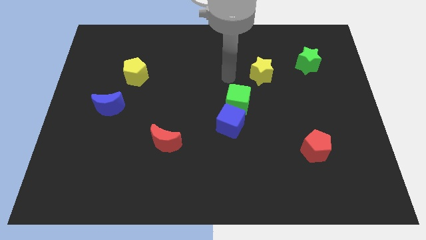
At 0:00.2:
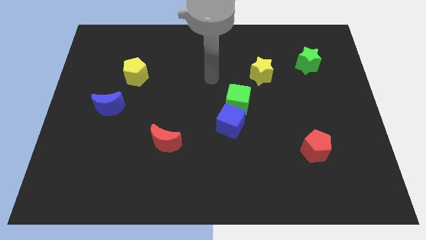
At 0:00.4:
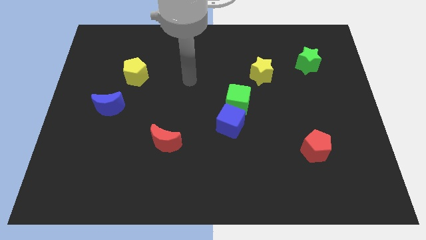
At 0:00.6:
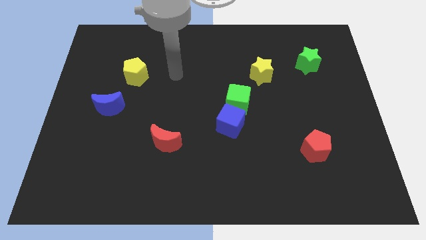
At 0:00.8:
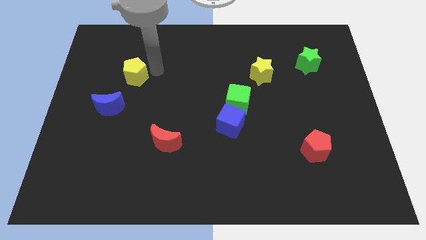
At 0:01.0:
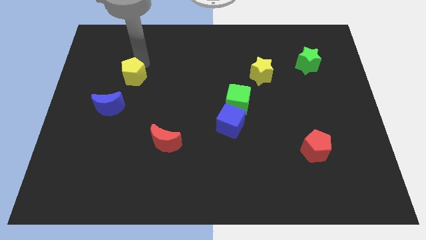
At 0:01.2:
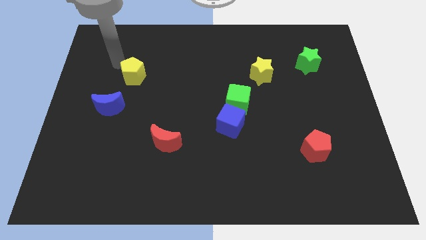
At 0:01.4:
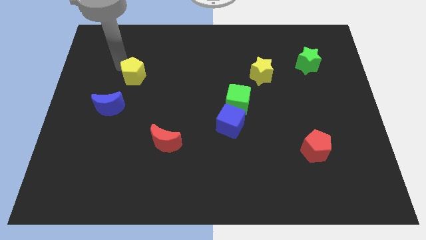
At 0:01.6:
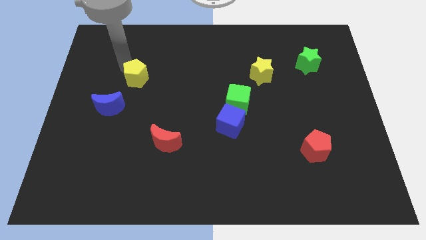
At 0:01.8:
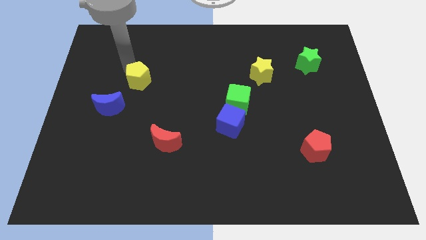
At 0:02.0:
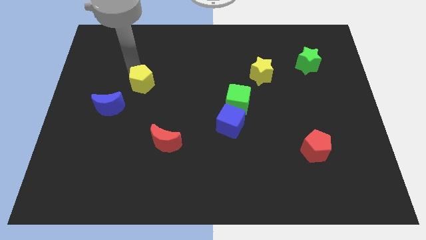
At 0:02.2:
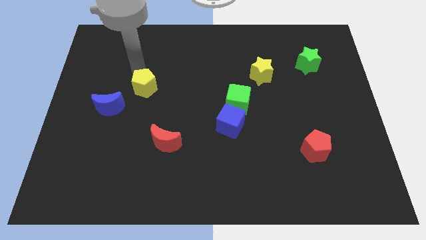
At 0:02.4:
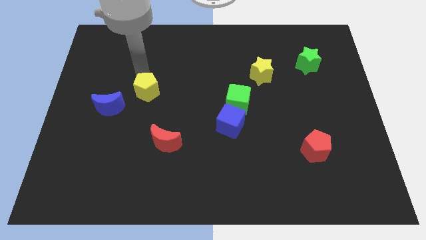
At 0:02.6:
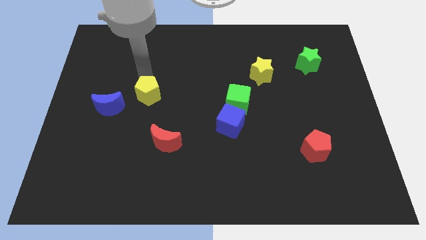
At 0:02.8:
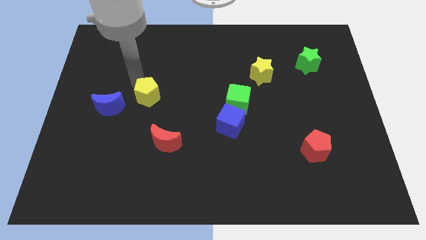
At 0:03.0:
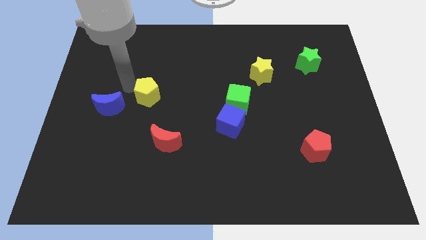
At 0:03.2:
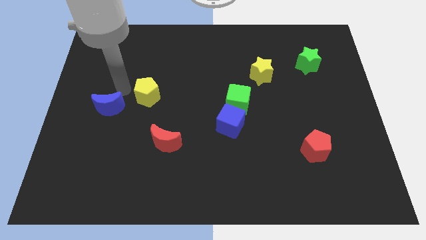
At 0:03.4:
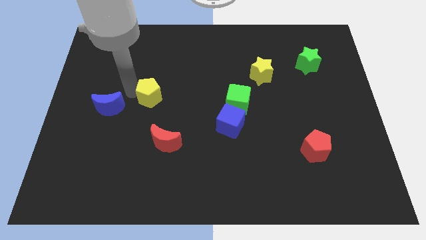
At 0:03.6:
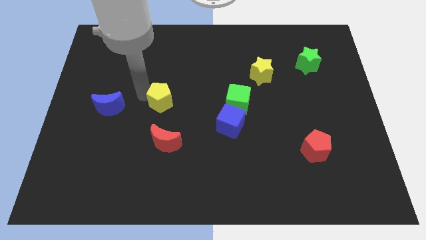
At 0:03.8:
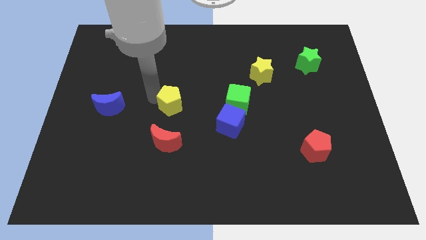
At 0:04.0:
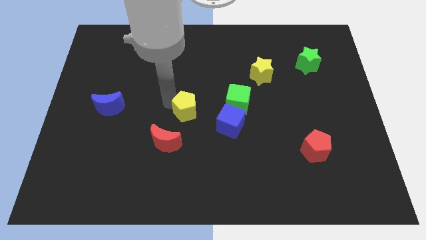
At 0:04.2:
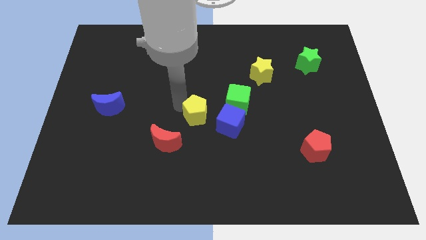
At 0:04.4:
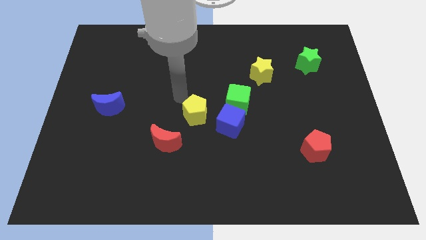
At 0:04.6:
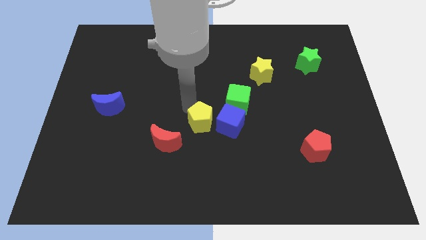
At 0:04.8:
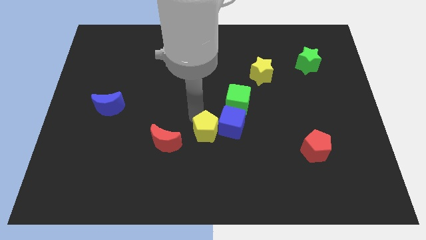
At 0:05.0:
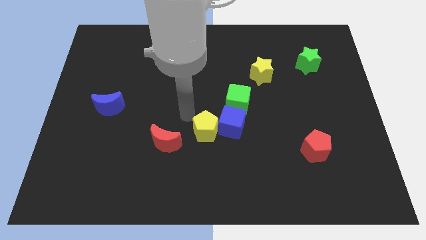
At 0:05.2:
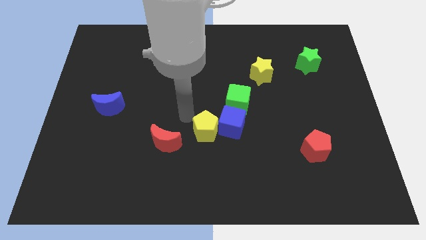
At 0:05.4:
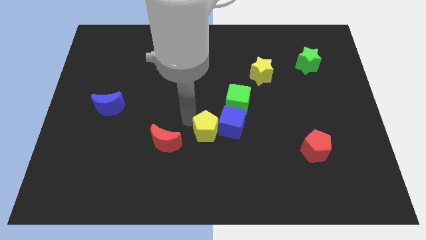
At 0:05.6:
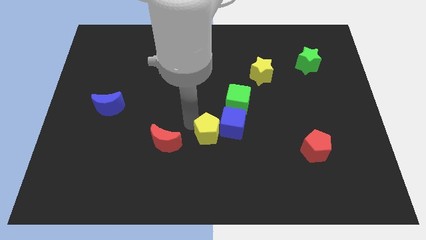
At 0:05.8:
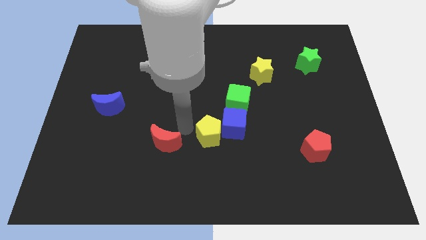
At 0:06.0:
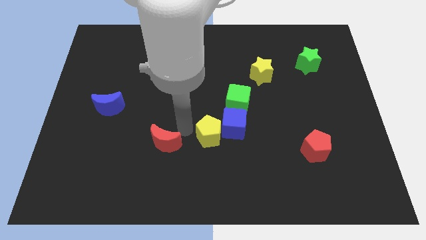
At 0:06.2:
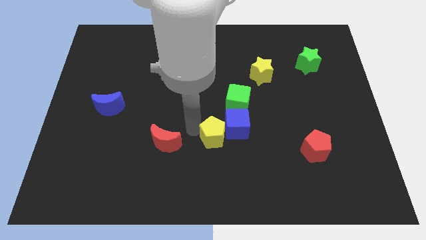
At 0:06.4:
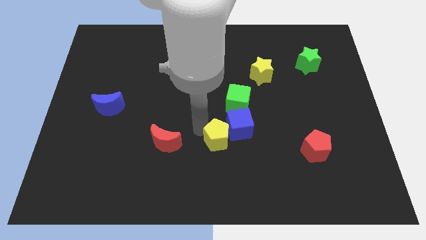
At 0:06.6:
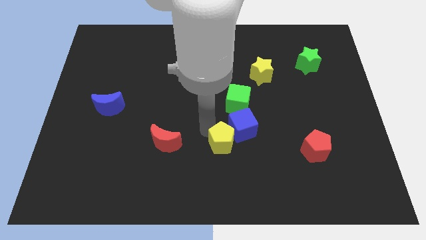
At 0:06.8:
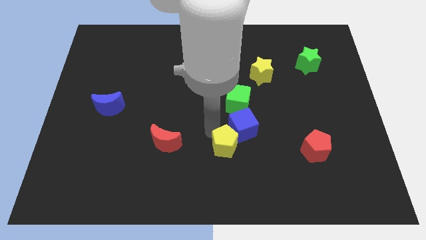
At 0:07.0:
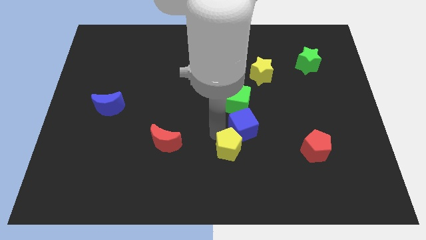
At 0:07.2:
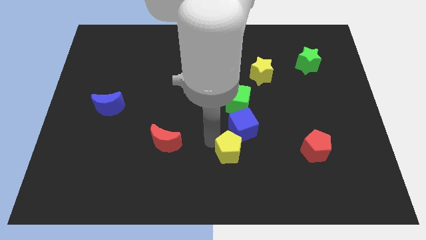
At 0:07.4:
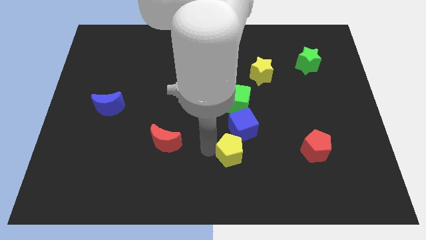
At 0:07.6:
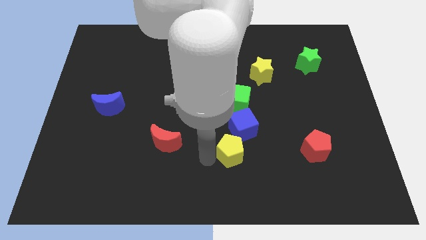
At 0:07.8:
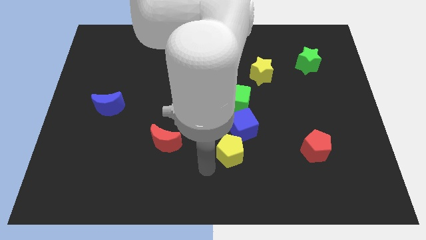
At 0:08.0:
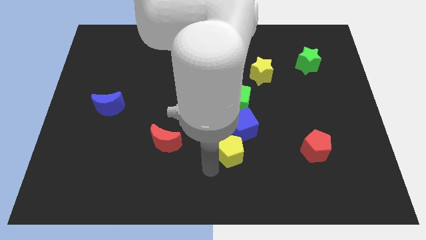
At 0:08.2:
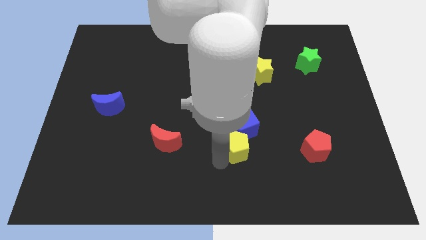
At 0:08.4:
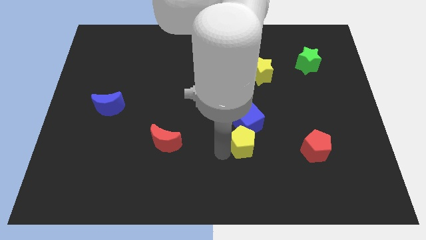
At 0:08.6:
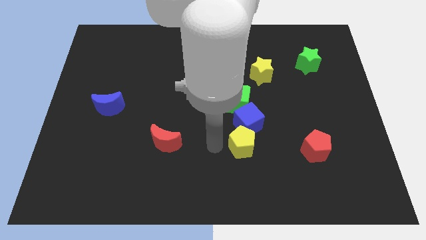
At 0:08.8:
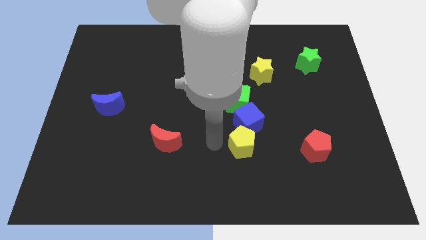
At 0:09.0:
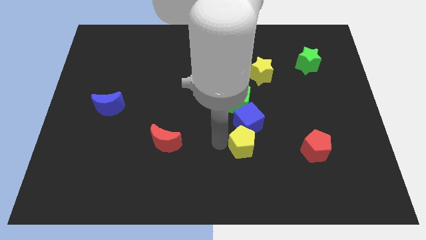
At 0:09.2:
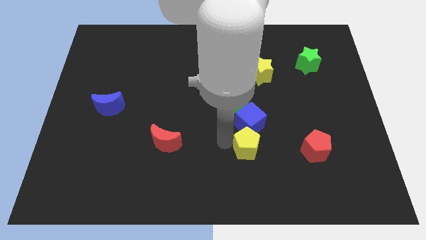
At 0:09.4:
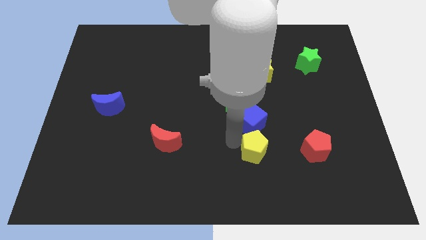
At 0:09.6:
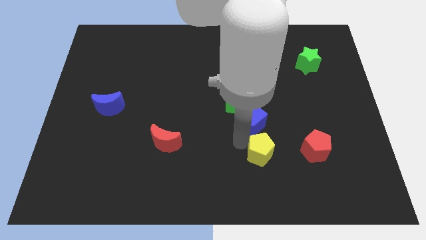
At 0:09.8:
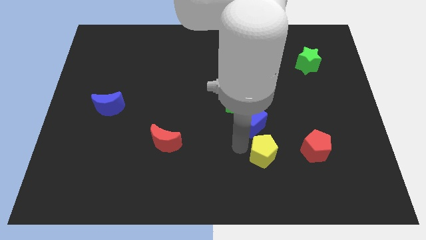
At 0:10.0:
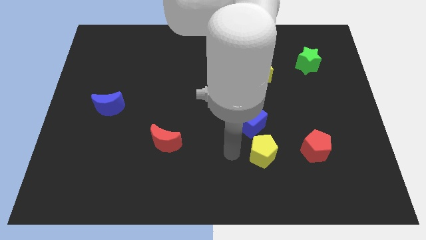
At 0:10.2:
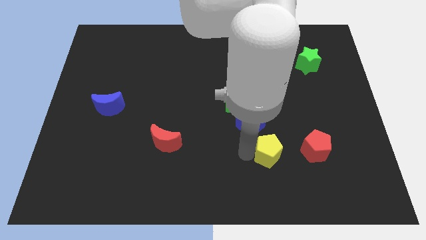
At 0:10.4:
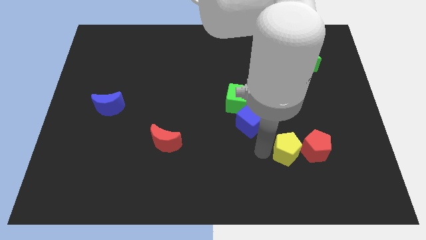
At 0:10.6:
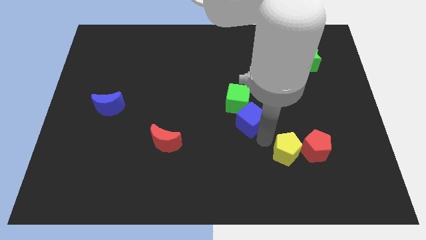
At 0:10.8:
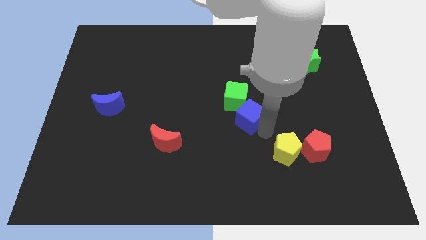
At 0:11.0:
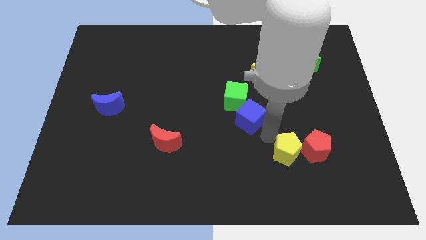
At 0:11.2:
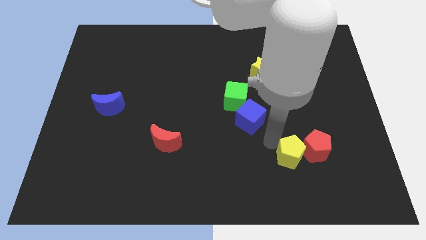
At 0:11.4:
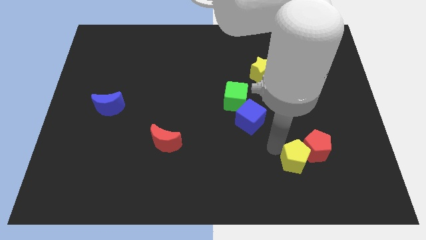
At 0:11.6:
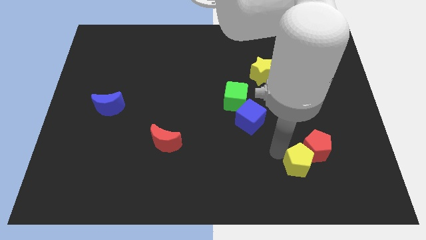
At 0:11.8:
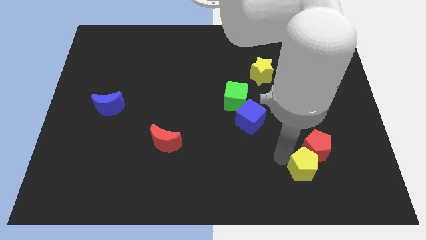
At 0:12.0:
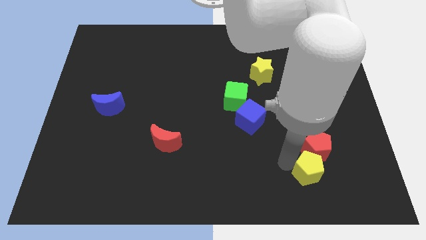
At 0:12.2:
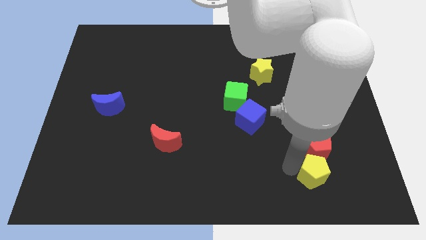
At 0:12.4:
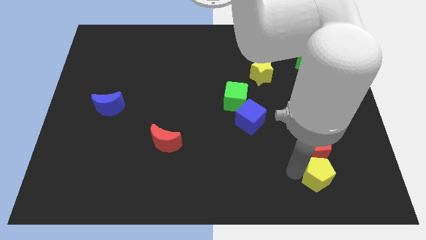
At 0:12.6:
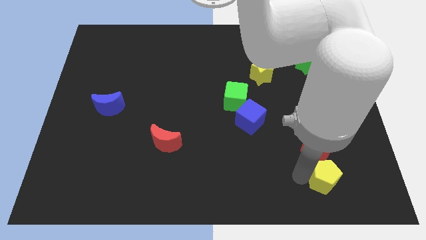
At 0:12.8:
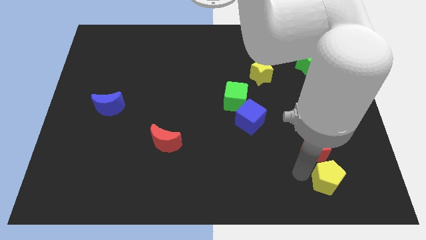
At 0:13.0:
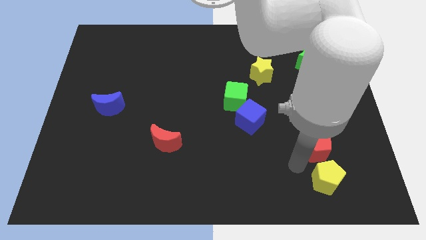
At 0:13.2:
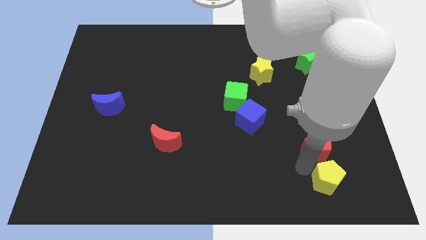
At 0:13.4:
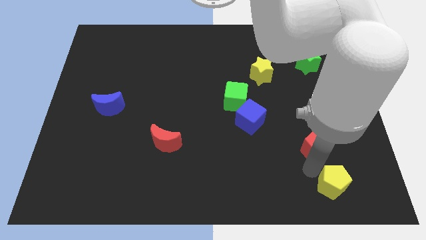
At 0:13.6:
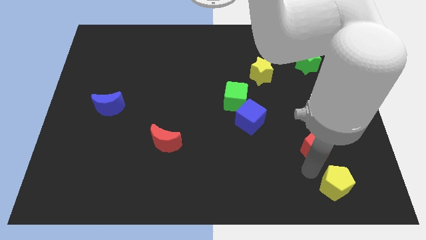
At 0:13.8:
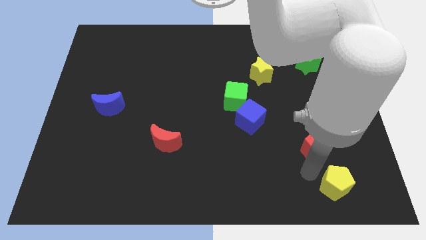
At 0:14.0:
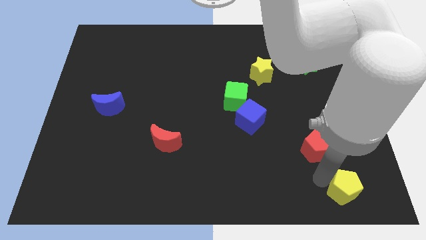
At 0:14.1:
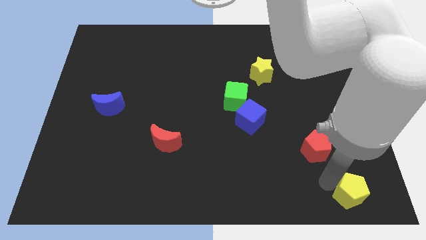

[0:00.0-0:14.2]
move the yellow pentagon to the lower right corner

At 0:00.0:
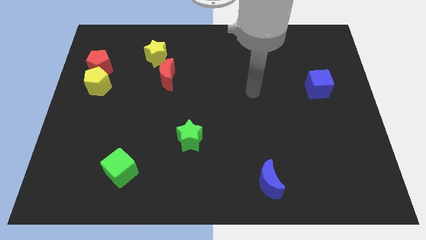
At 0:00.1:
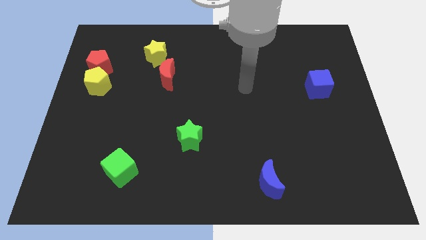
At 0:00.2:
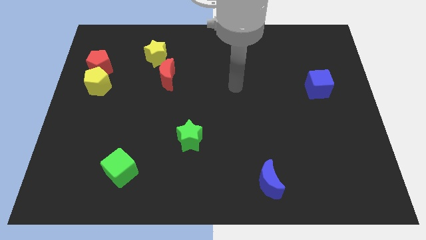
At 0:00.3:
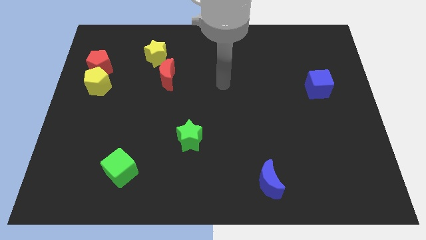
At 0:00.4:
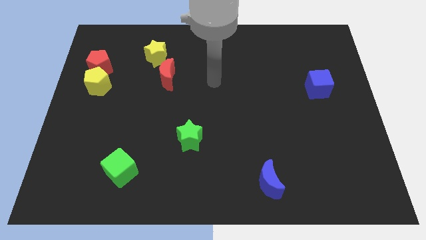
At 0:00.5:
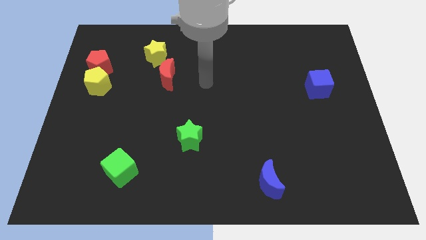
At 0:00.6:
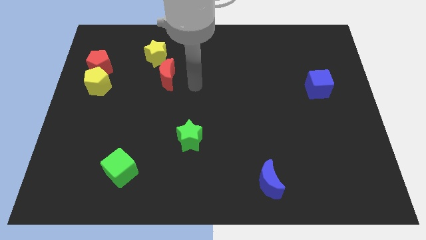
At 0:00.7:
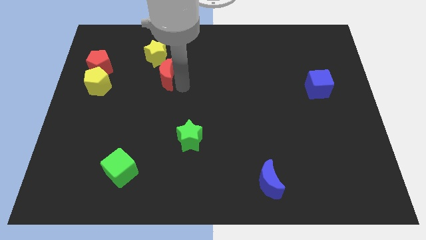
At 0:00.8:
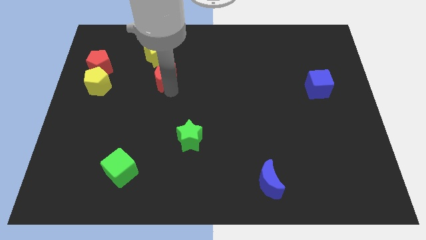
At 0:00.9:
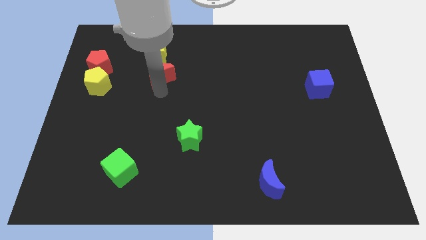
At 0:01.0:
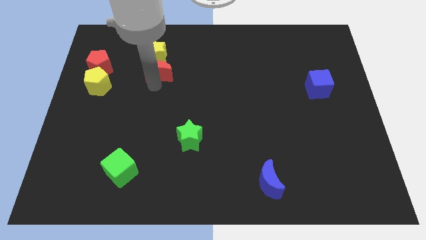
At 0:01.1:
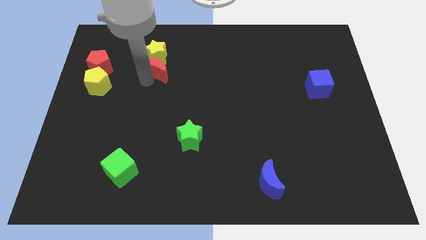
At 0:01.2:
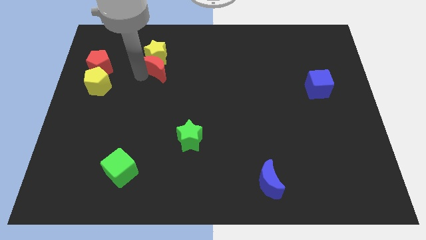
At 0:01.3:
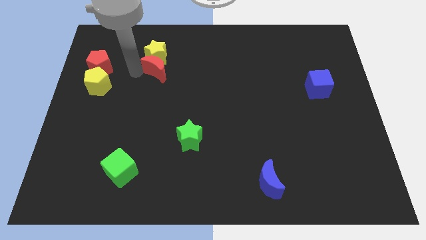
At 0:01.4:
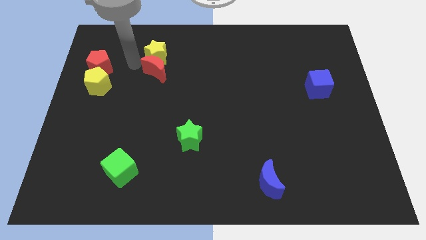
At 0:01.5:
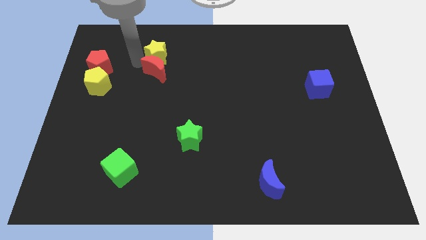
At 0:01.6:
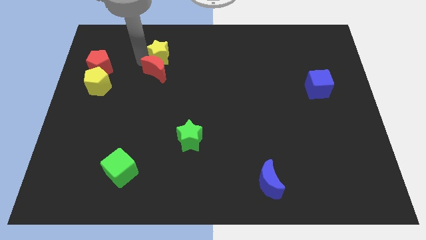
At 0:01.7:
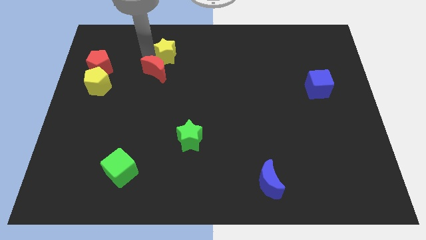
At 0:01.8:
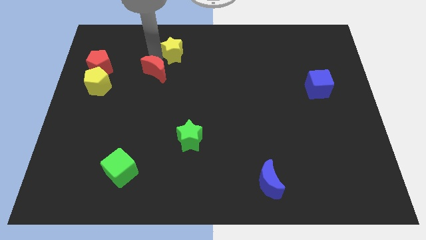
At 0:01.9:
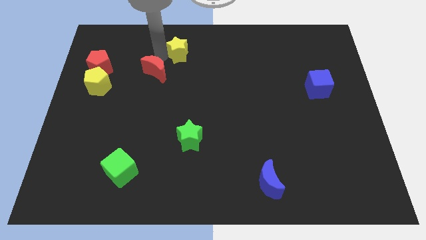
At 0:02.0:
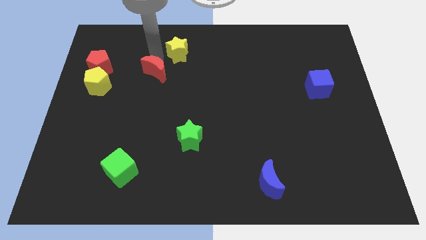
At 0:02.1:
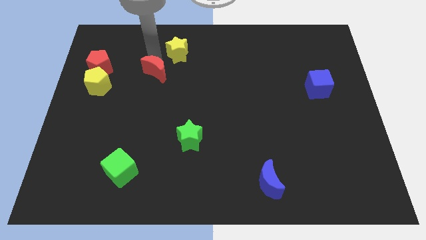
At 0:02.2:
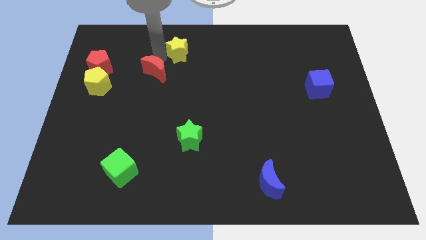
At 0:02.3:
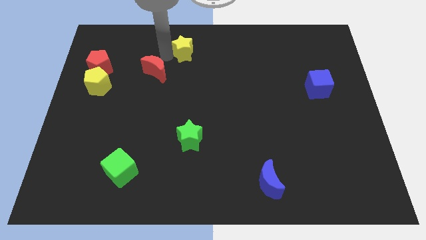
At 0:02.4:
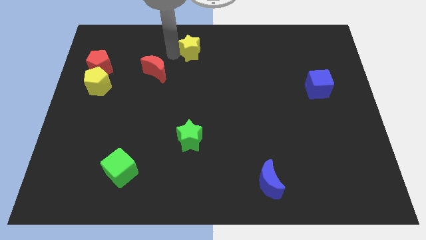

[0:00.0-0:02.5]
move the yellow star to the towards your base
